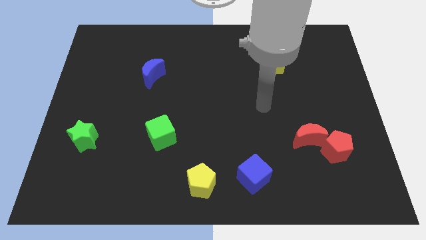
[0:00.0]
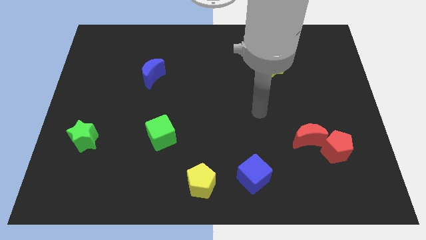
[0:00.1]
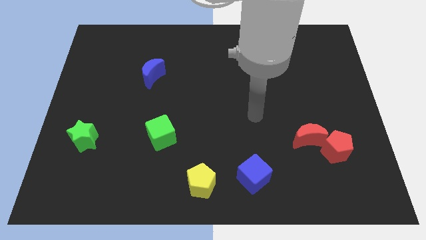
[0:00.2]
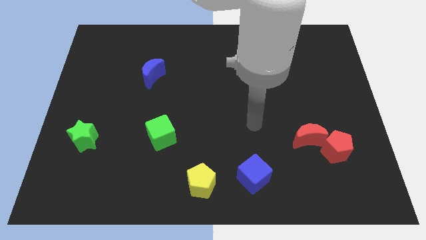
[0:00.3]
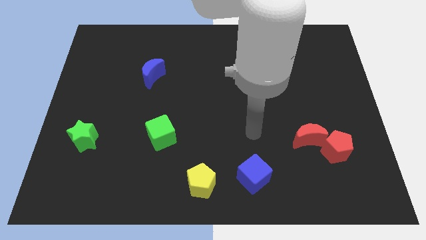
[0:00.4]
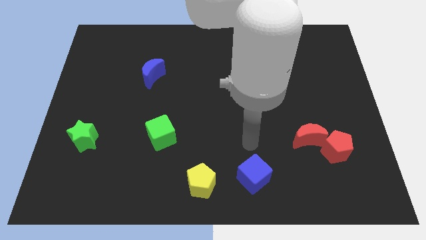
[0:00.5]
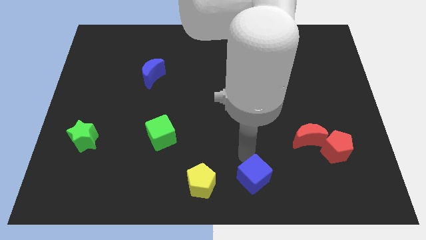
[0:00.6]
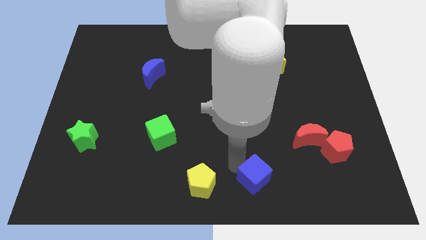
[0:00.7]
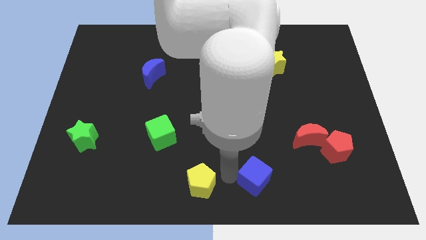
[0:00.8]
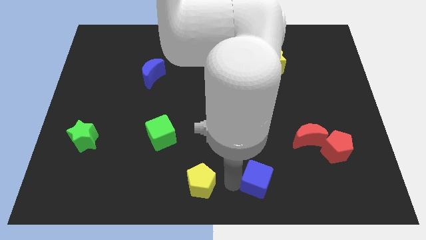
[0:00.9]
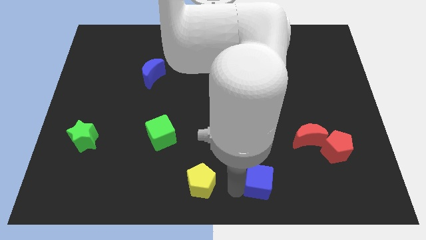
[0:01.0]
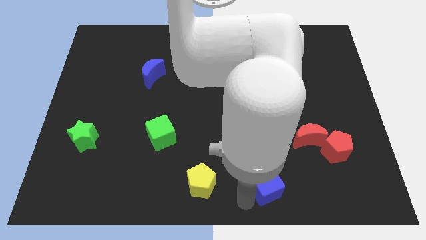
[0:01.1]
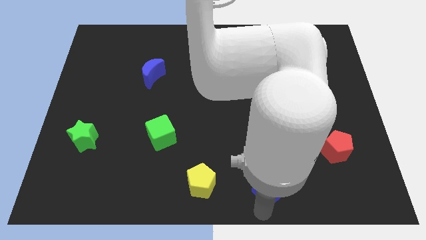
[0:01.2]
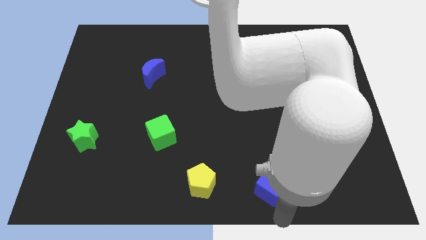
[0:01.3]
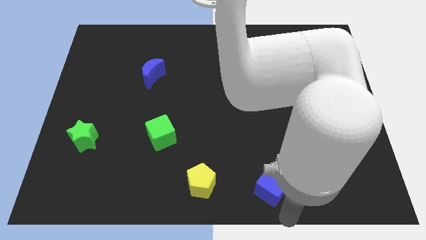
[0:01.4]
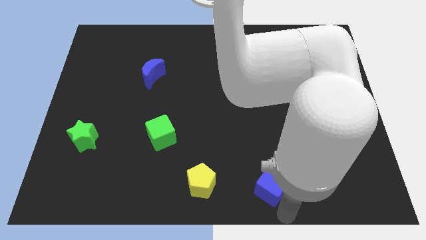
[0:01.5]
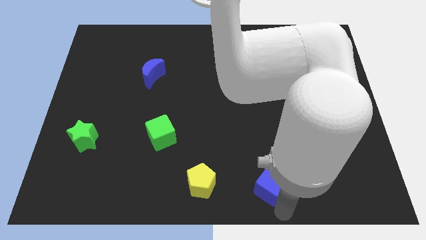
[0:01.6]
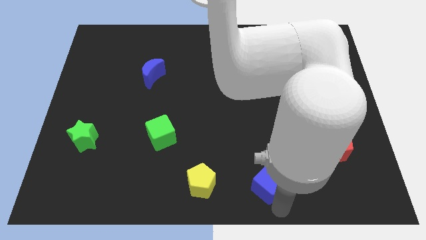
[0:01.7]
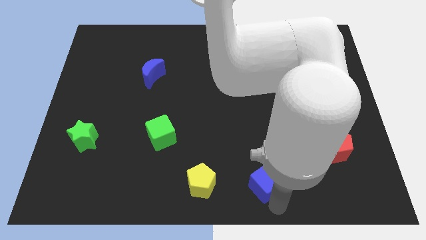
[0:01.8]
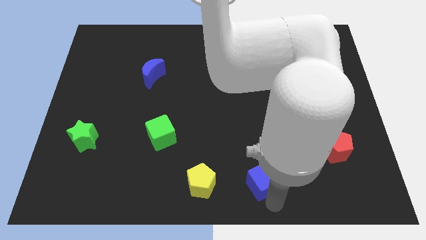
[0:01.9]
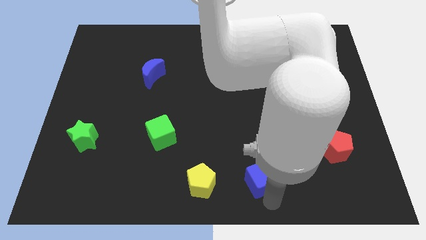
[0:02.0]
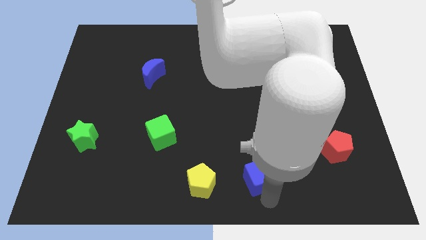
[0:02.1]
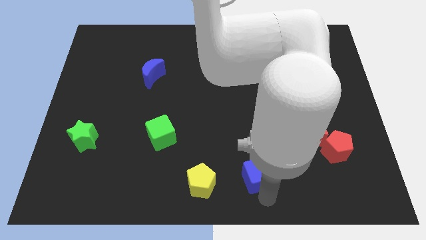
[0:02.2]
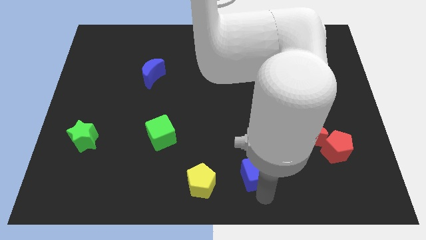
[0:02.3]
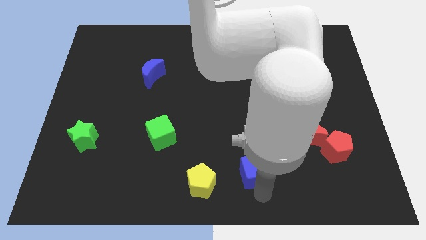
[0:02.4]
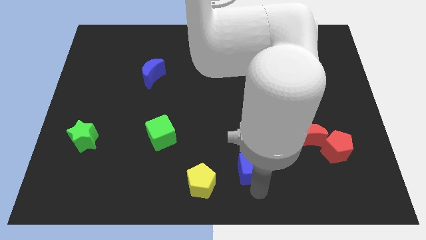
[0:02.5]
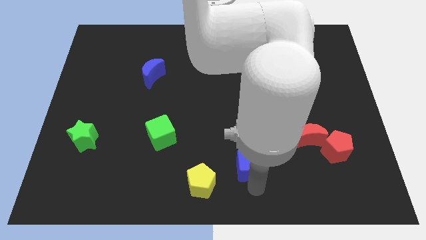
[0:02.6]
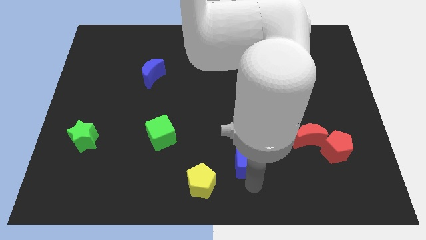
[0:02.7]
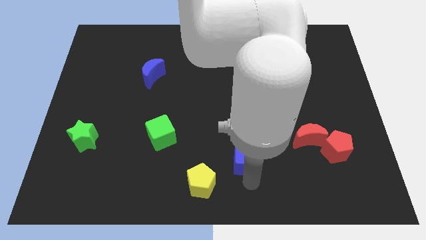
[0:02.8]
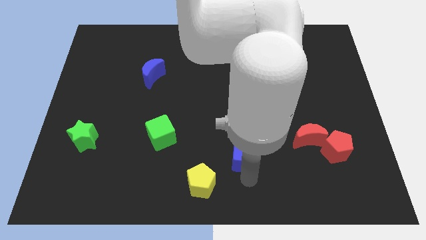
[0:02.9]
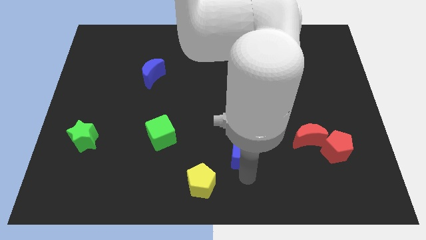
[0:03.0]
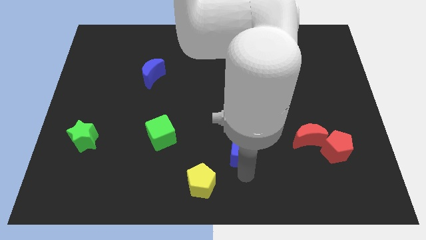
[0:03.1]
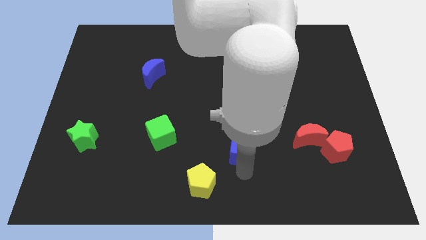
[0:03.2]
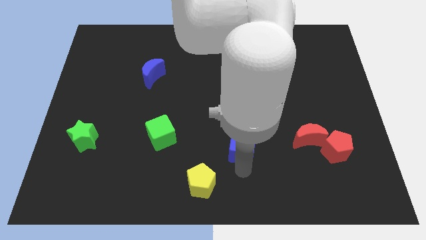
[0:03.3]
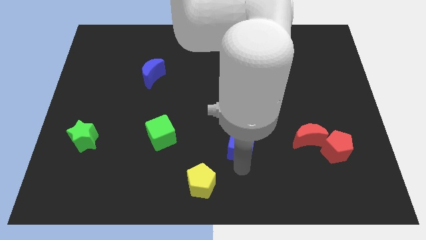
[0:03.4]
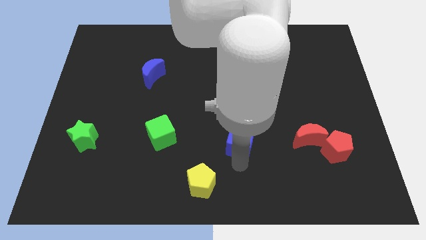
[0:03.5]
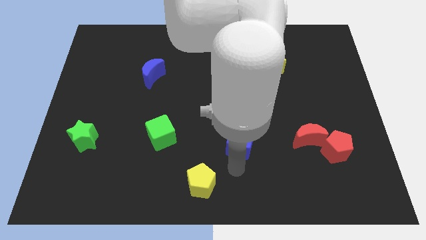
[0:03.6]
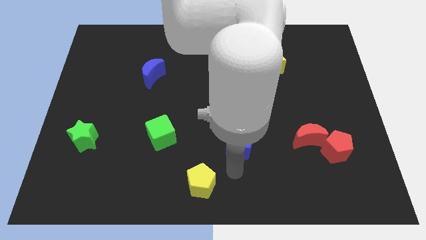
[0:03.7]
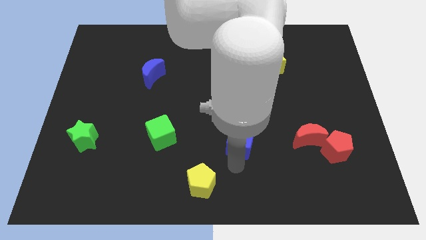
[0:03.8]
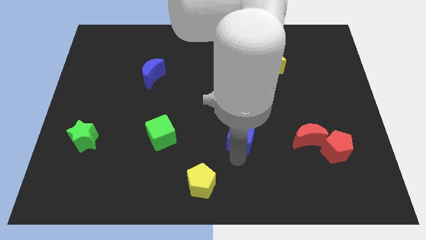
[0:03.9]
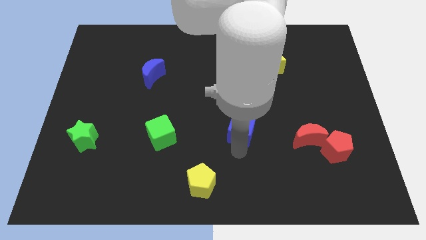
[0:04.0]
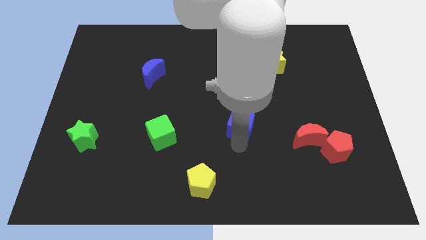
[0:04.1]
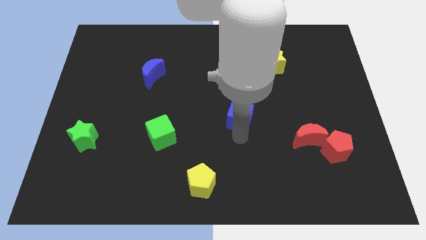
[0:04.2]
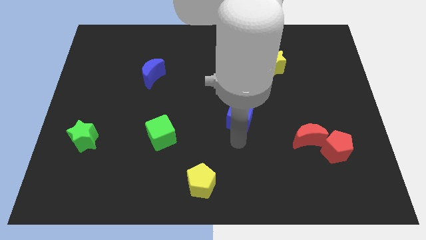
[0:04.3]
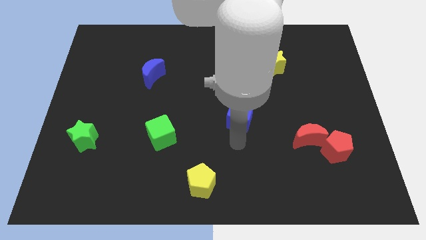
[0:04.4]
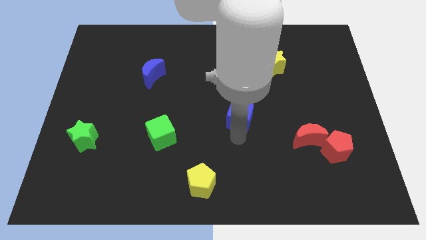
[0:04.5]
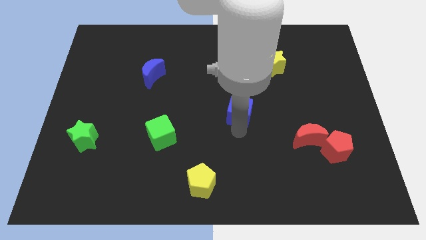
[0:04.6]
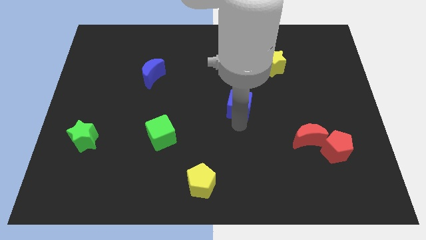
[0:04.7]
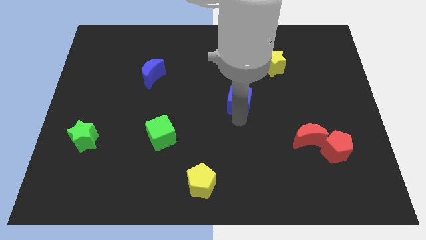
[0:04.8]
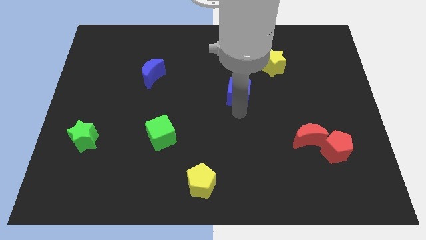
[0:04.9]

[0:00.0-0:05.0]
move the blue cube upwards

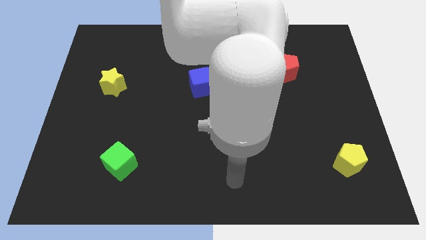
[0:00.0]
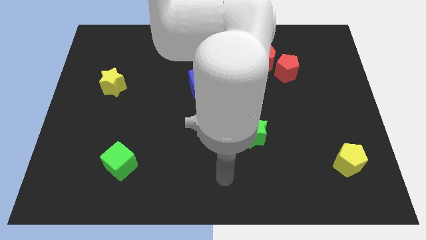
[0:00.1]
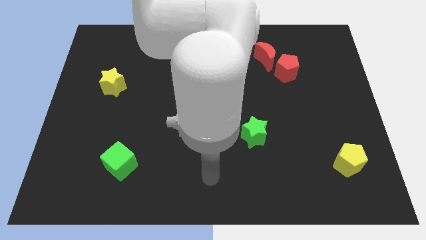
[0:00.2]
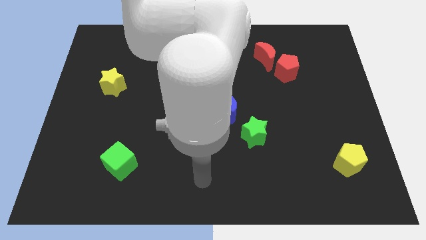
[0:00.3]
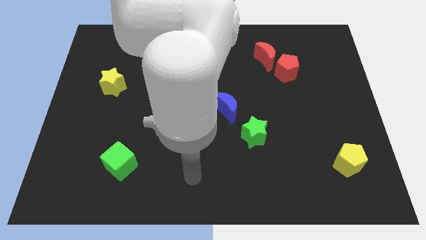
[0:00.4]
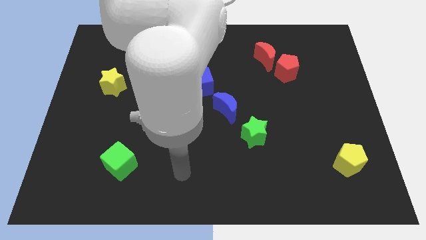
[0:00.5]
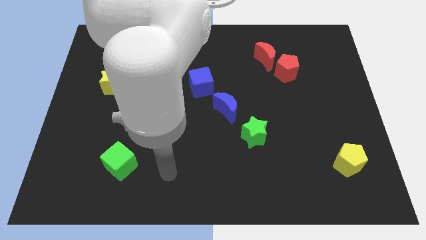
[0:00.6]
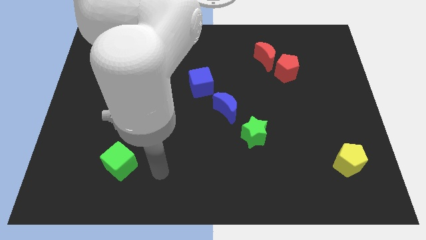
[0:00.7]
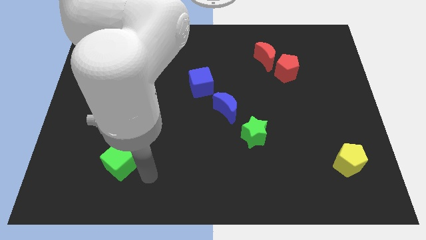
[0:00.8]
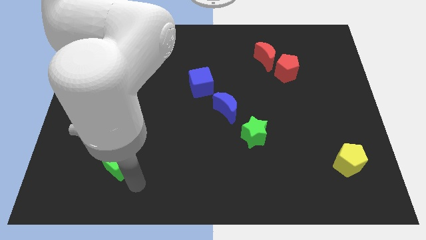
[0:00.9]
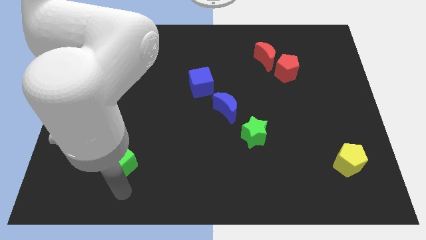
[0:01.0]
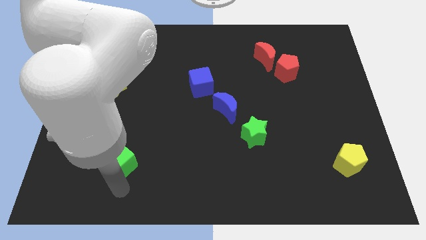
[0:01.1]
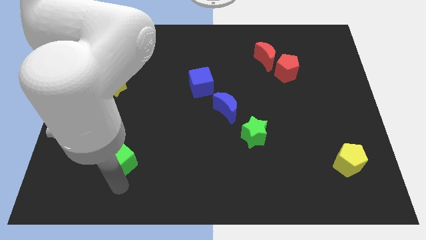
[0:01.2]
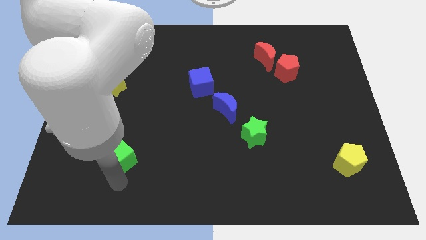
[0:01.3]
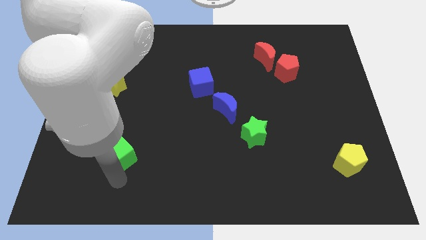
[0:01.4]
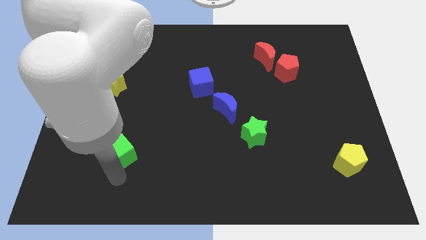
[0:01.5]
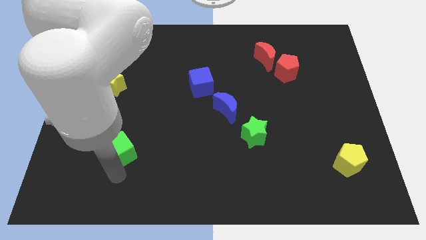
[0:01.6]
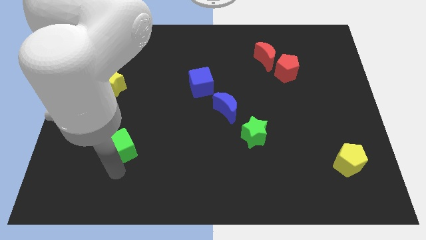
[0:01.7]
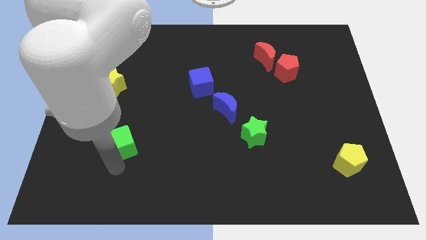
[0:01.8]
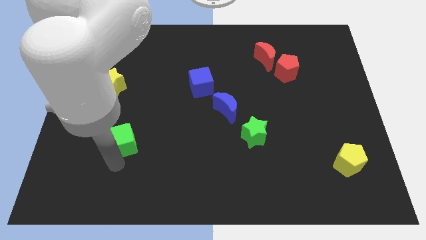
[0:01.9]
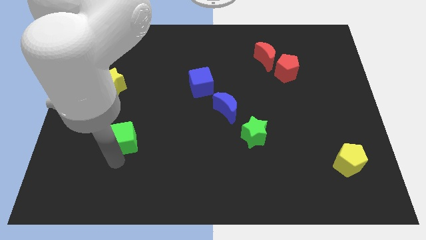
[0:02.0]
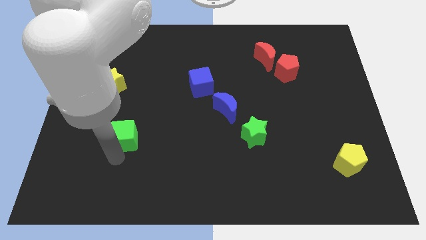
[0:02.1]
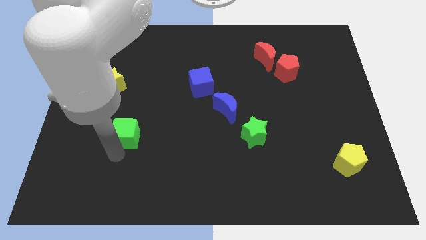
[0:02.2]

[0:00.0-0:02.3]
slightly slide the green cube upwards

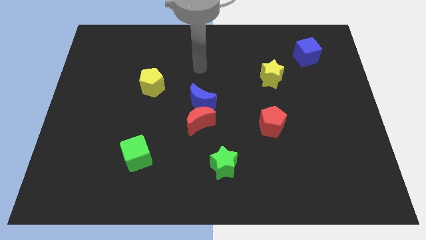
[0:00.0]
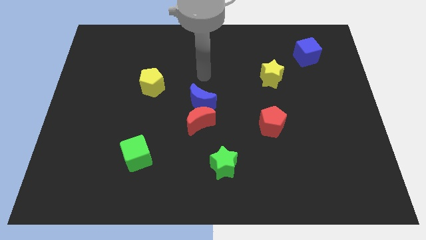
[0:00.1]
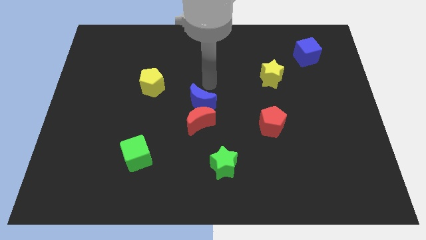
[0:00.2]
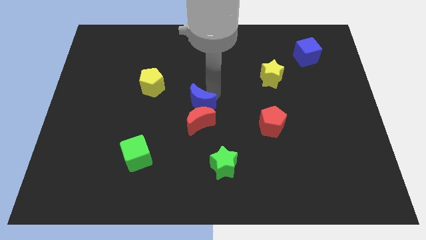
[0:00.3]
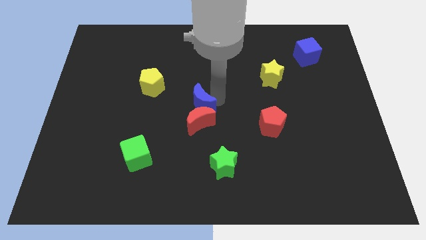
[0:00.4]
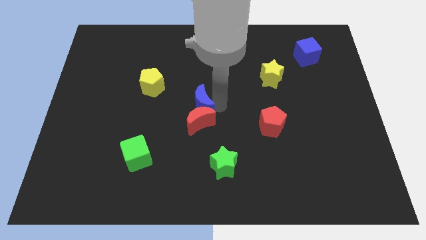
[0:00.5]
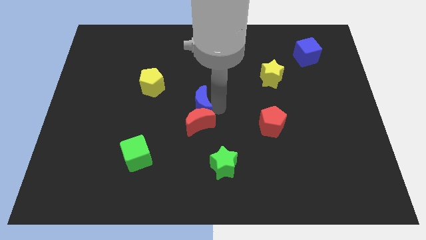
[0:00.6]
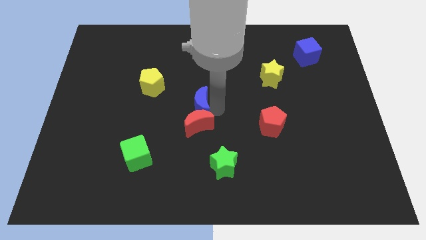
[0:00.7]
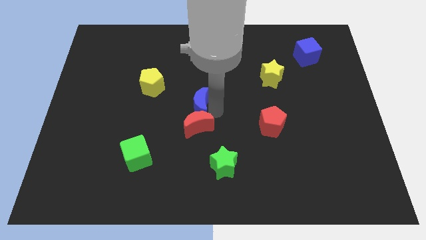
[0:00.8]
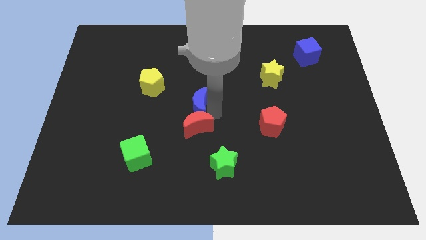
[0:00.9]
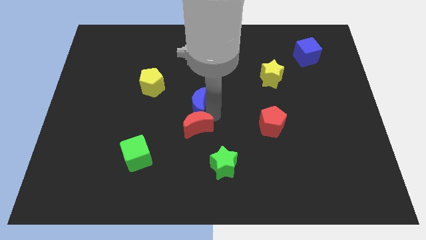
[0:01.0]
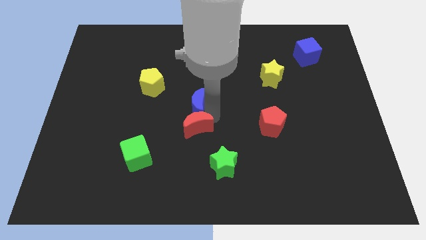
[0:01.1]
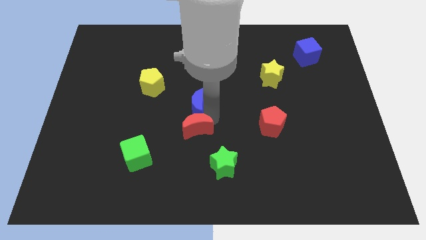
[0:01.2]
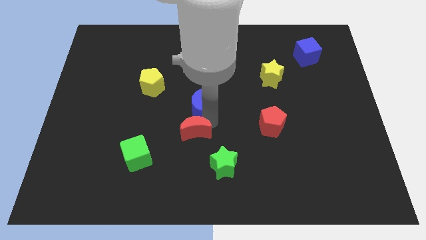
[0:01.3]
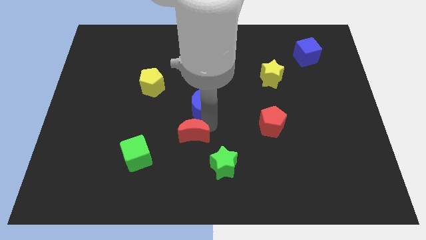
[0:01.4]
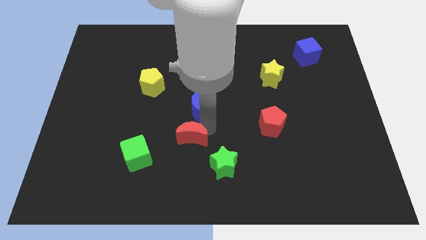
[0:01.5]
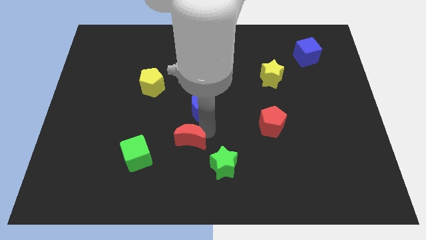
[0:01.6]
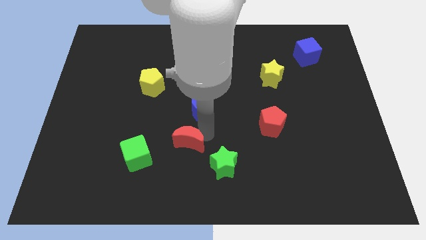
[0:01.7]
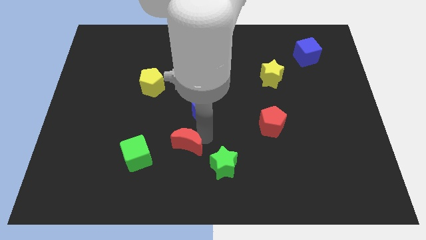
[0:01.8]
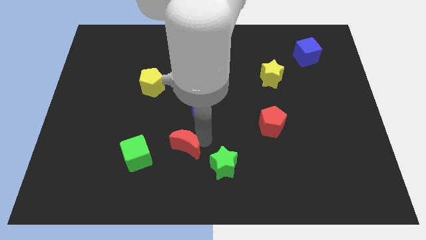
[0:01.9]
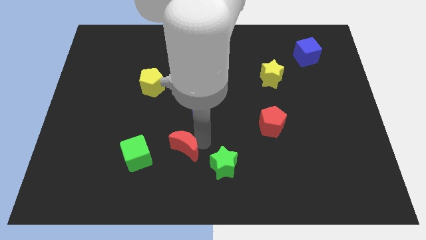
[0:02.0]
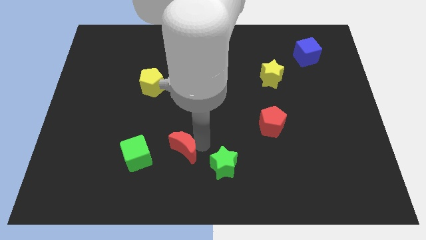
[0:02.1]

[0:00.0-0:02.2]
slide the red moon a little bit down and then to the left
